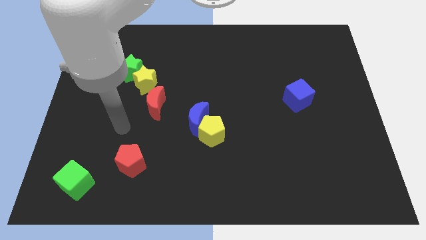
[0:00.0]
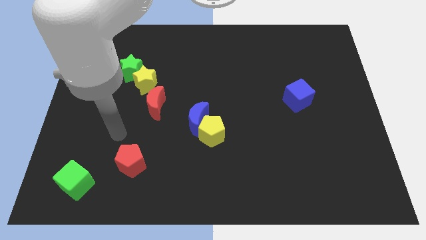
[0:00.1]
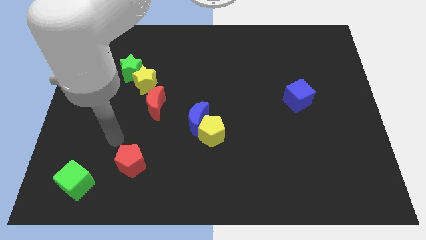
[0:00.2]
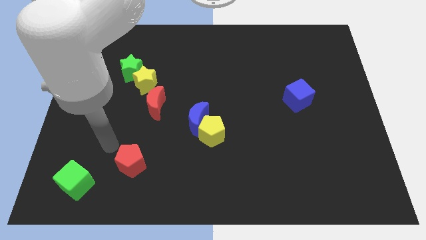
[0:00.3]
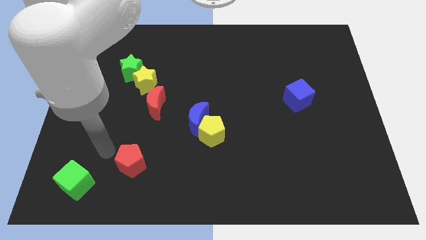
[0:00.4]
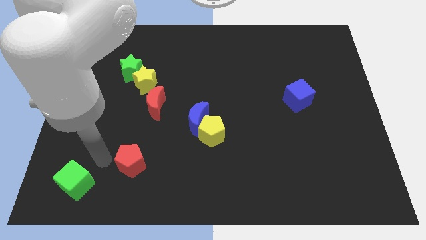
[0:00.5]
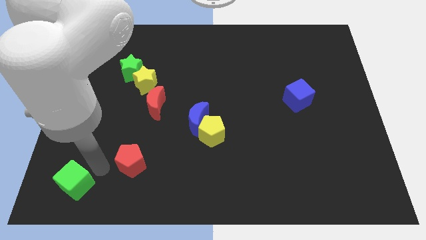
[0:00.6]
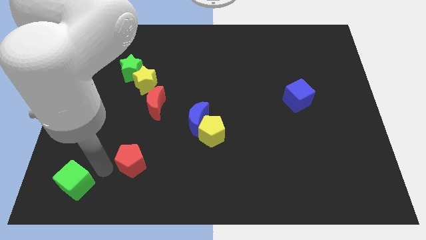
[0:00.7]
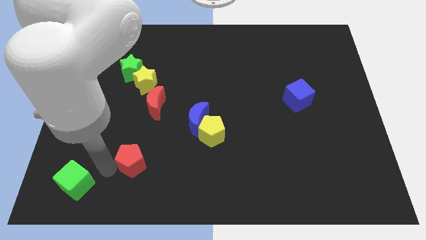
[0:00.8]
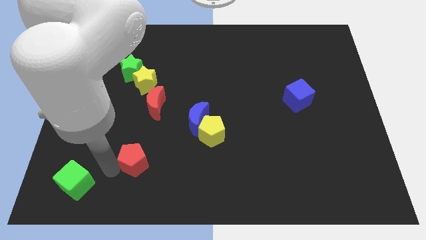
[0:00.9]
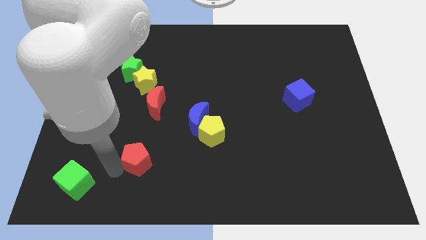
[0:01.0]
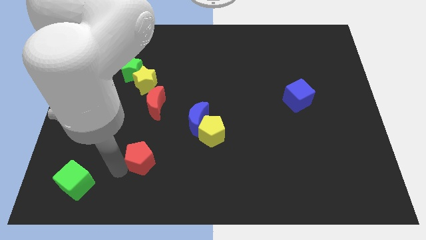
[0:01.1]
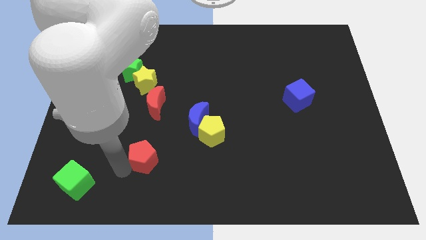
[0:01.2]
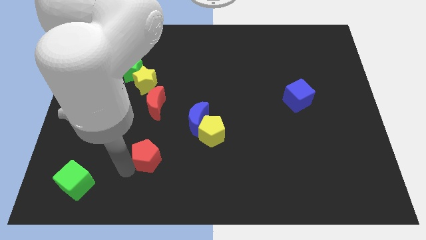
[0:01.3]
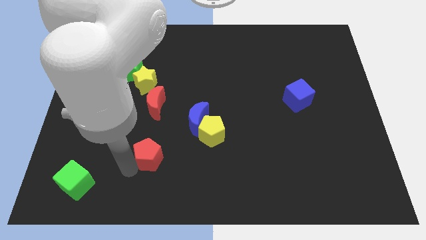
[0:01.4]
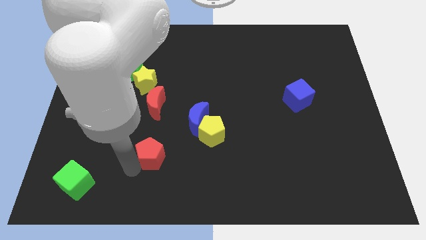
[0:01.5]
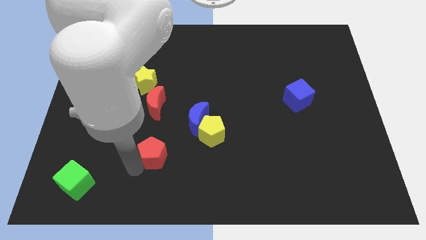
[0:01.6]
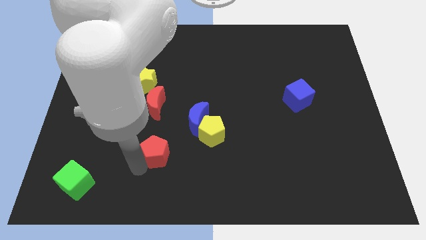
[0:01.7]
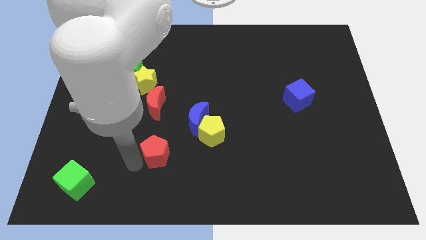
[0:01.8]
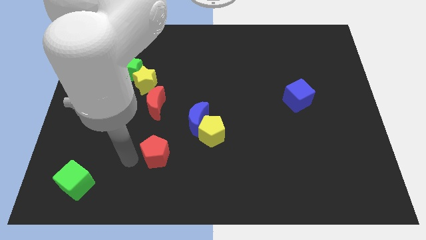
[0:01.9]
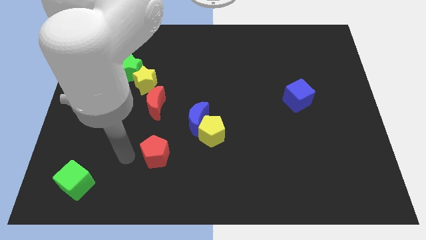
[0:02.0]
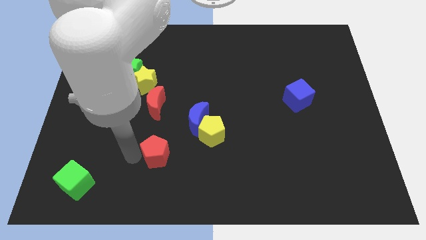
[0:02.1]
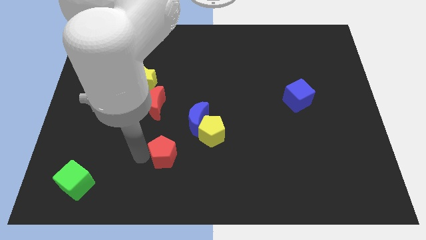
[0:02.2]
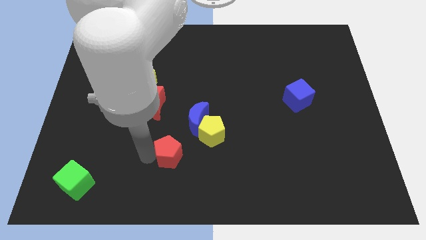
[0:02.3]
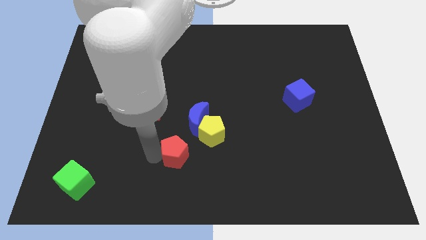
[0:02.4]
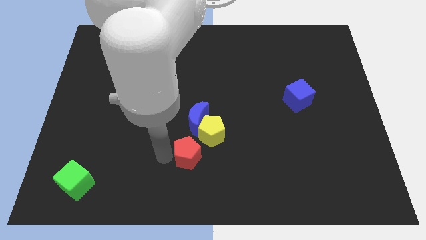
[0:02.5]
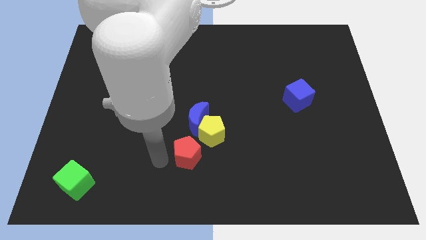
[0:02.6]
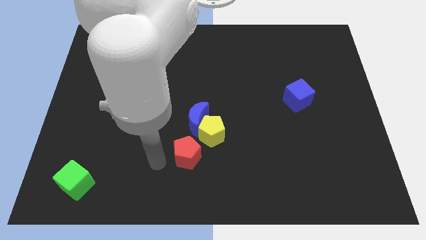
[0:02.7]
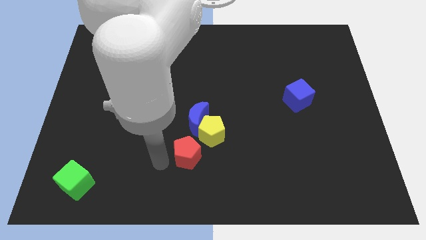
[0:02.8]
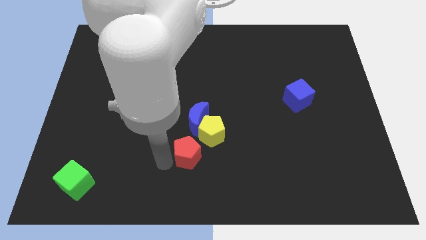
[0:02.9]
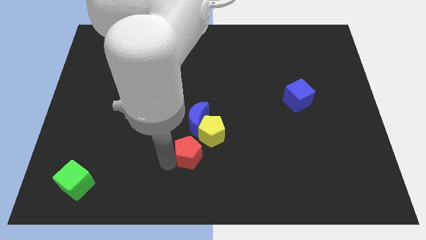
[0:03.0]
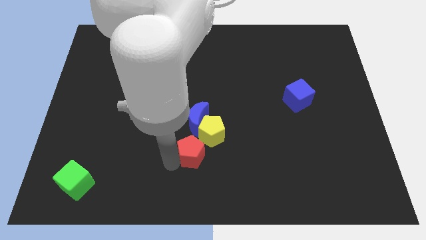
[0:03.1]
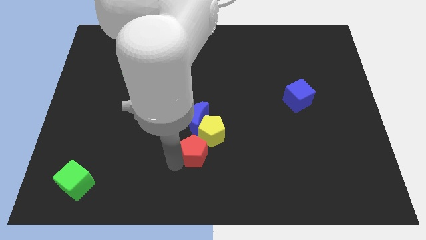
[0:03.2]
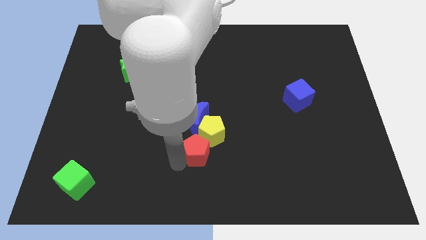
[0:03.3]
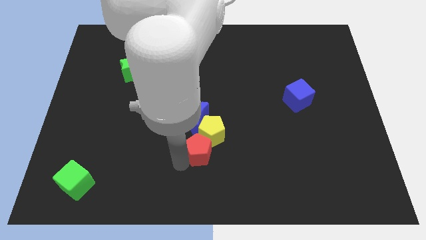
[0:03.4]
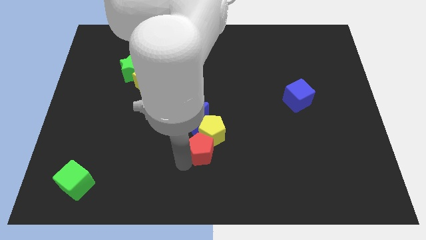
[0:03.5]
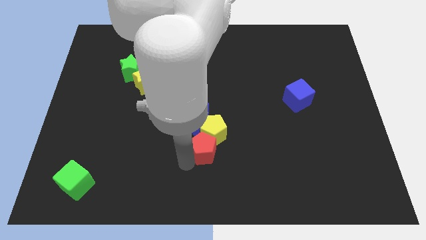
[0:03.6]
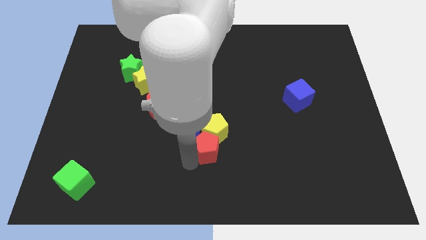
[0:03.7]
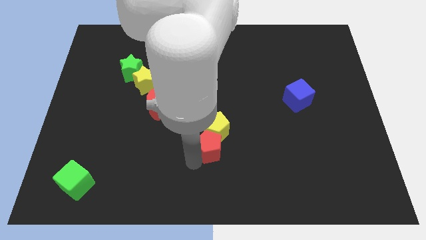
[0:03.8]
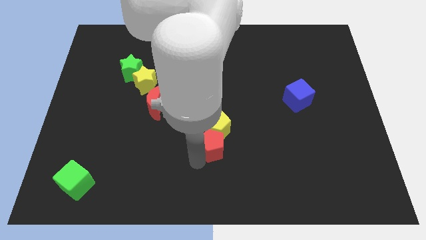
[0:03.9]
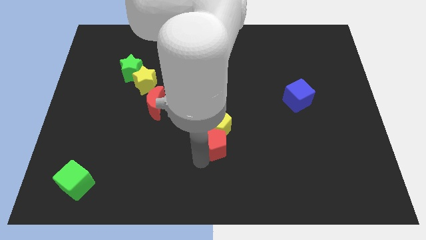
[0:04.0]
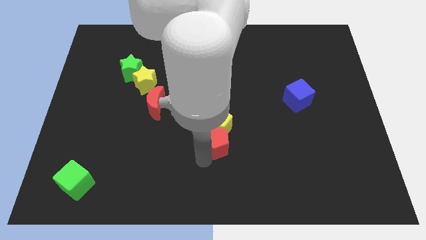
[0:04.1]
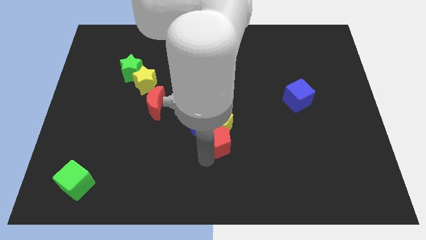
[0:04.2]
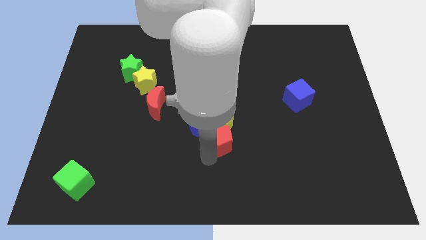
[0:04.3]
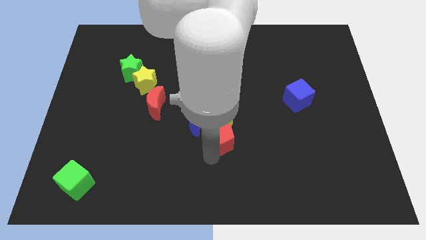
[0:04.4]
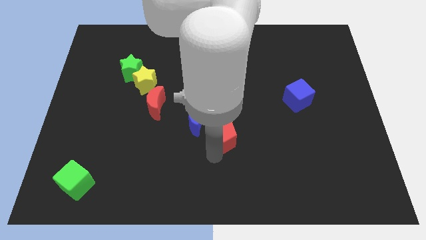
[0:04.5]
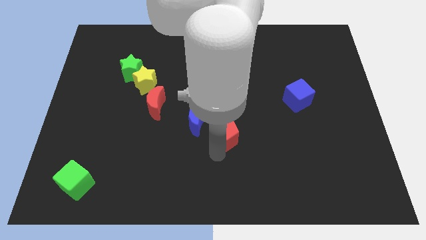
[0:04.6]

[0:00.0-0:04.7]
slide the red pentagon right of the blue moon

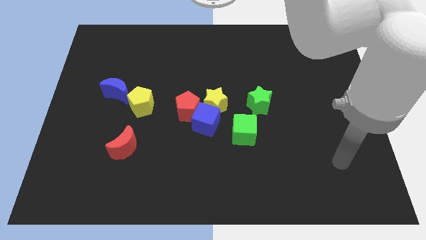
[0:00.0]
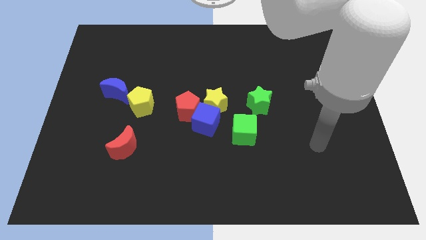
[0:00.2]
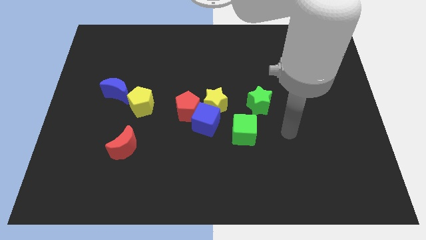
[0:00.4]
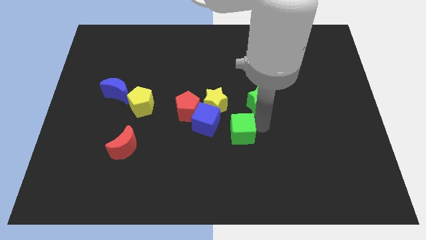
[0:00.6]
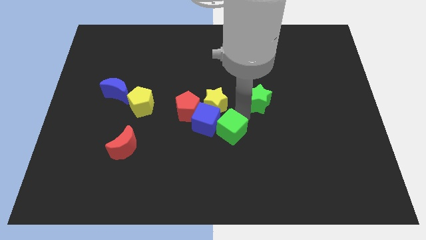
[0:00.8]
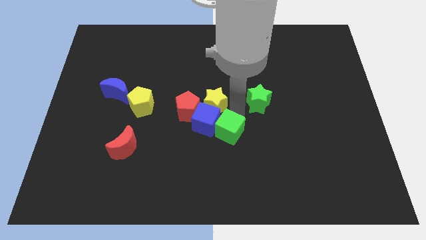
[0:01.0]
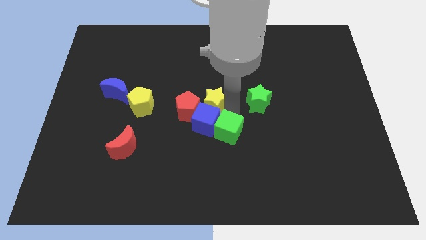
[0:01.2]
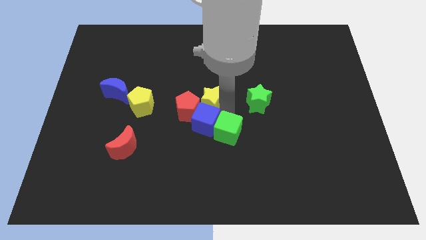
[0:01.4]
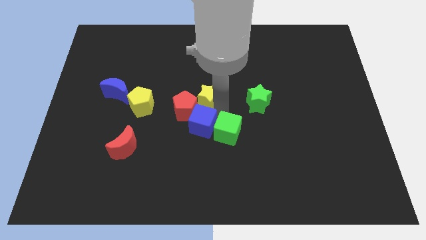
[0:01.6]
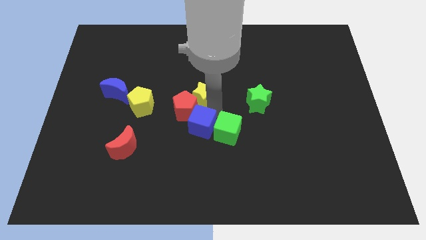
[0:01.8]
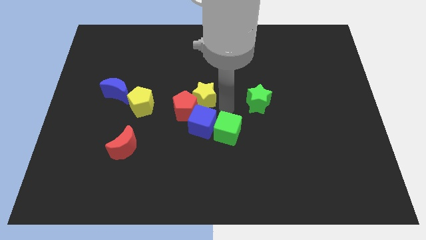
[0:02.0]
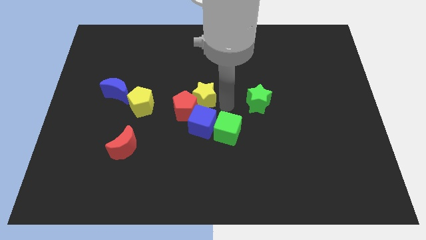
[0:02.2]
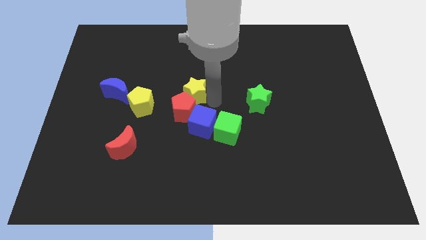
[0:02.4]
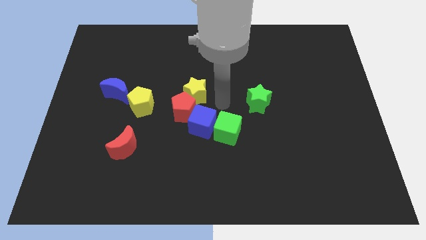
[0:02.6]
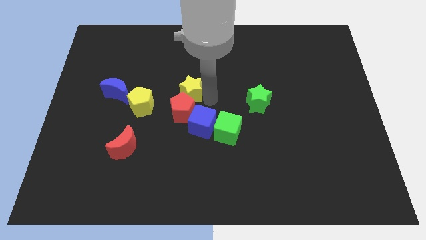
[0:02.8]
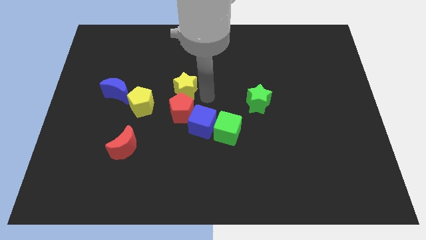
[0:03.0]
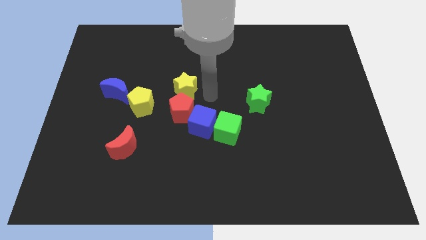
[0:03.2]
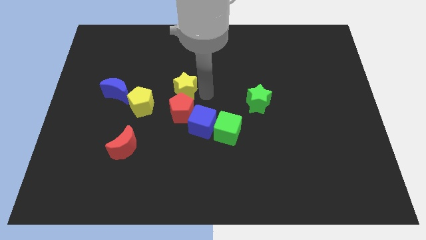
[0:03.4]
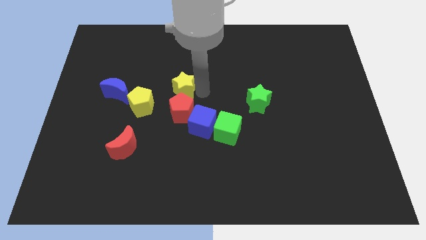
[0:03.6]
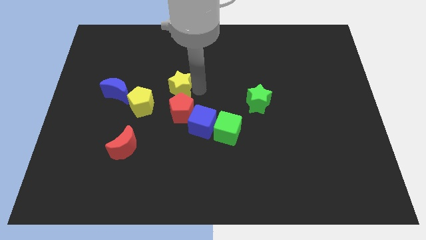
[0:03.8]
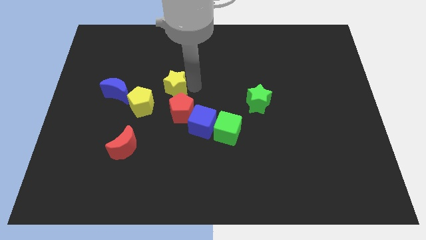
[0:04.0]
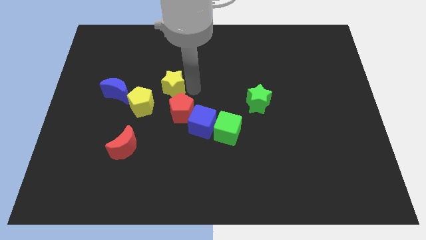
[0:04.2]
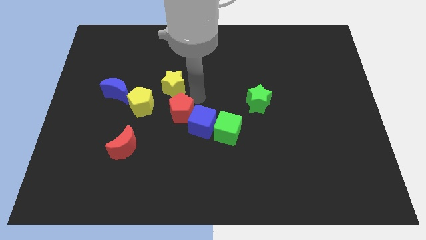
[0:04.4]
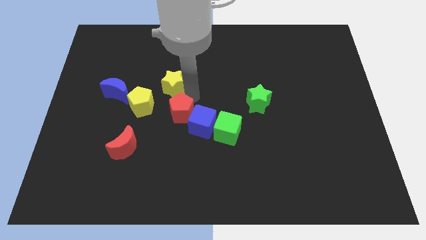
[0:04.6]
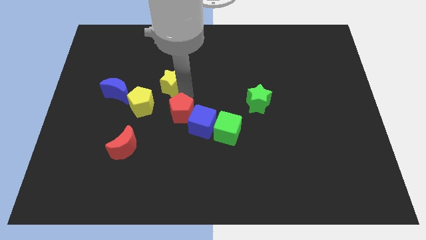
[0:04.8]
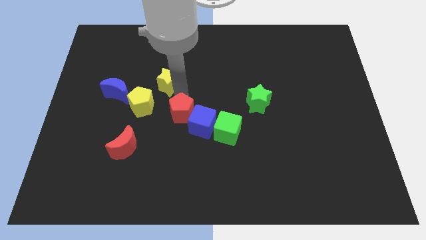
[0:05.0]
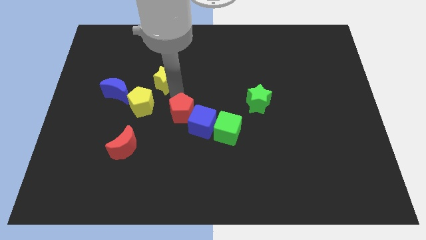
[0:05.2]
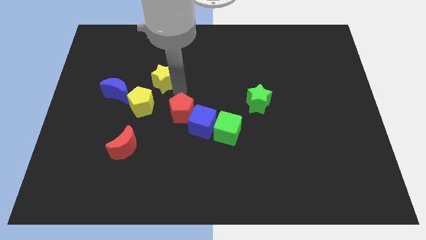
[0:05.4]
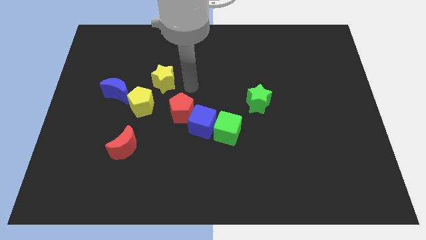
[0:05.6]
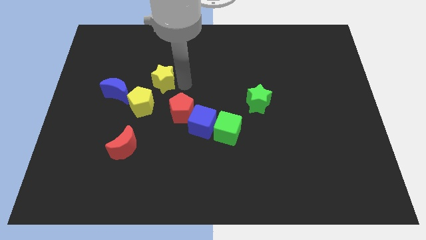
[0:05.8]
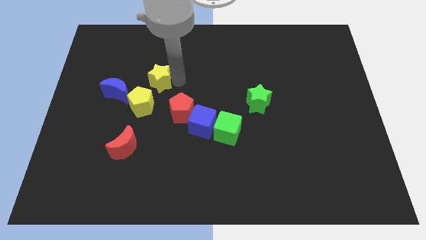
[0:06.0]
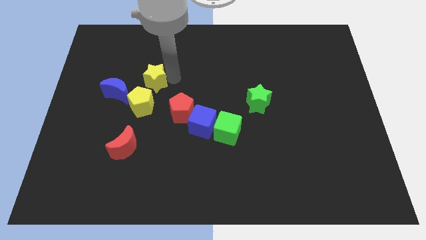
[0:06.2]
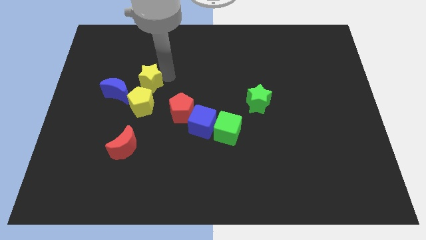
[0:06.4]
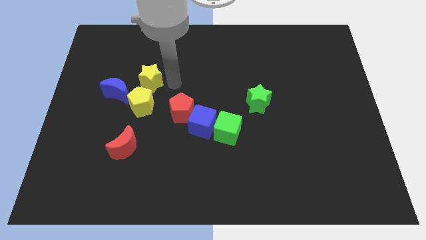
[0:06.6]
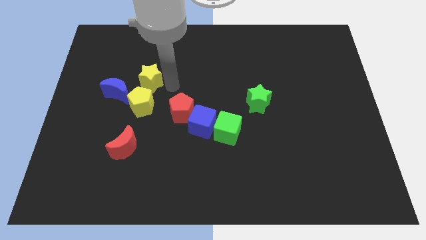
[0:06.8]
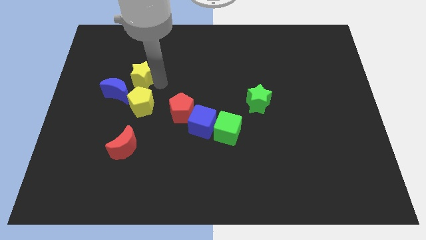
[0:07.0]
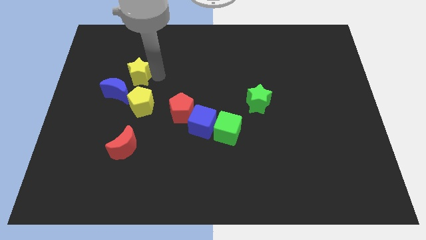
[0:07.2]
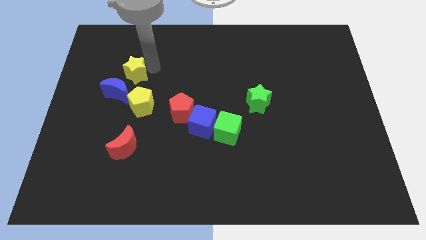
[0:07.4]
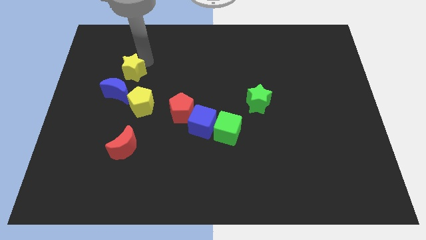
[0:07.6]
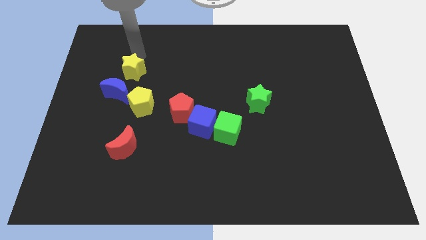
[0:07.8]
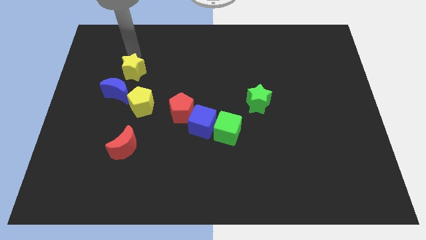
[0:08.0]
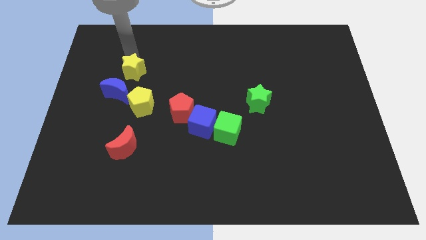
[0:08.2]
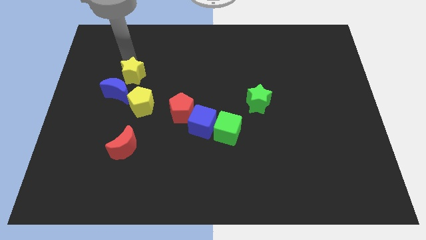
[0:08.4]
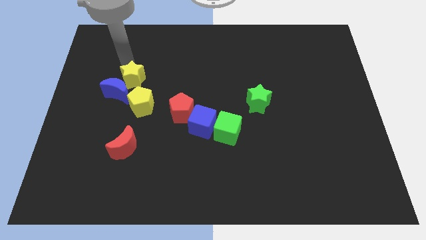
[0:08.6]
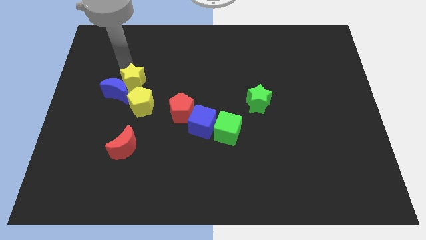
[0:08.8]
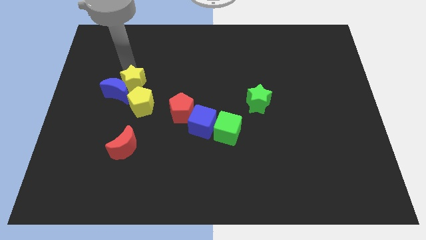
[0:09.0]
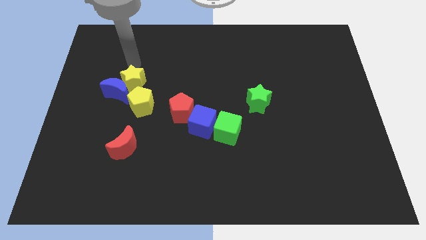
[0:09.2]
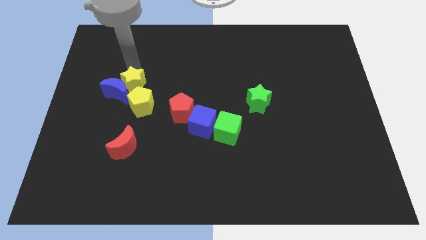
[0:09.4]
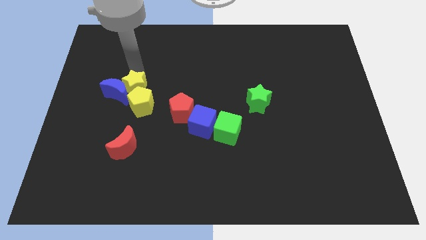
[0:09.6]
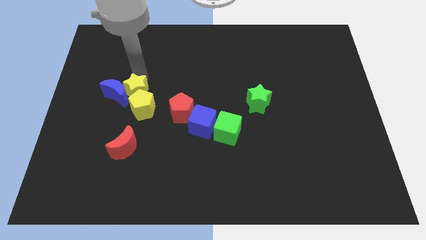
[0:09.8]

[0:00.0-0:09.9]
move the yellow star to the top of the red moon
